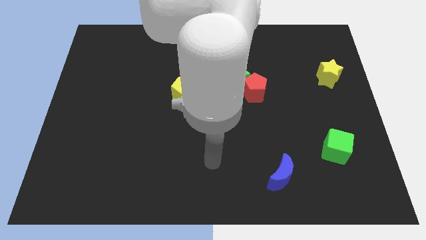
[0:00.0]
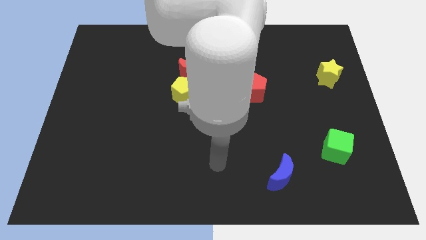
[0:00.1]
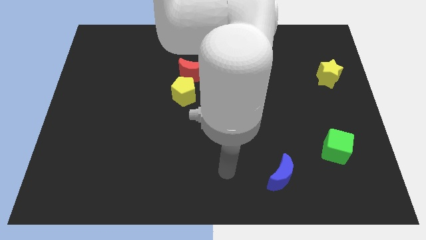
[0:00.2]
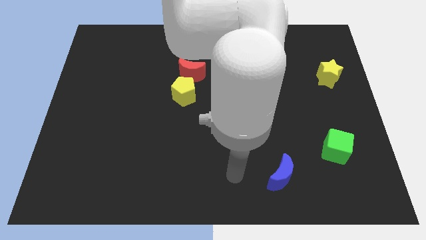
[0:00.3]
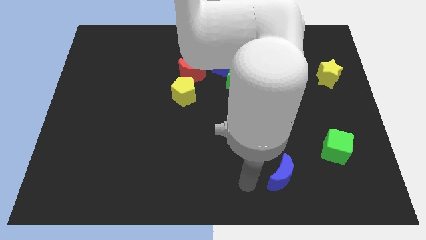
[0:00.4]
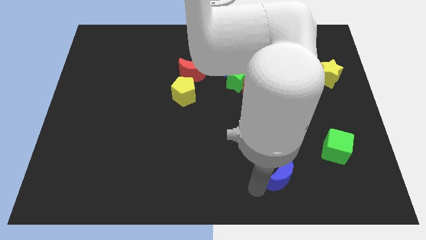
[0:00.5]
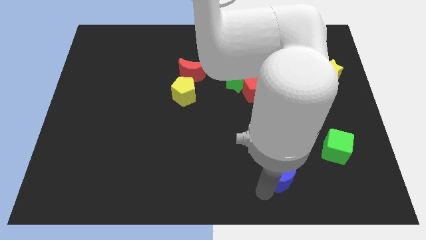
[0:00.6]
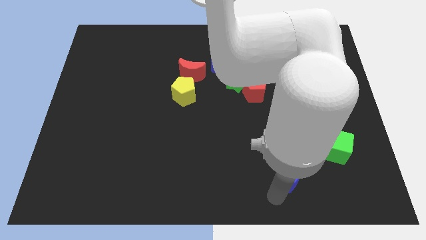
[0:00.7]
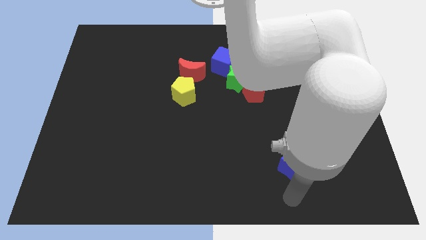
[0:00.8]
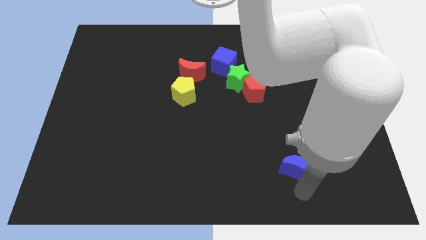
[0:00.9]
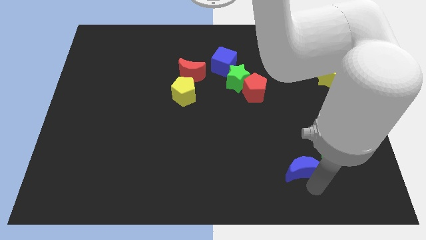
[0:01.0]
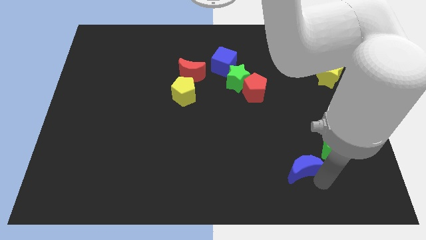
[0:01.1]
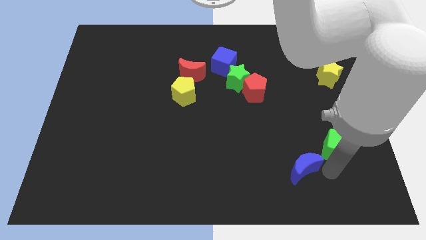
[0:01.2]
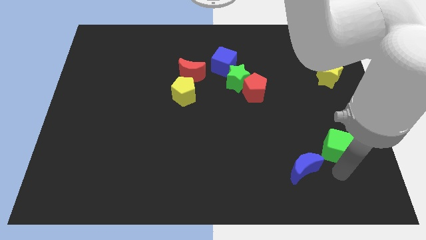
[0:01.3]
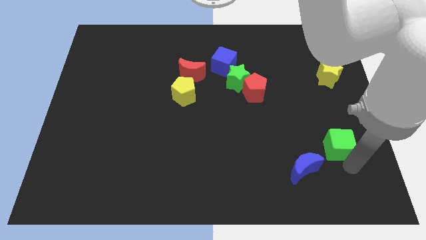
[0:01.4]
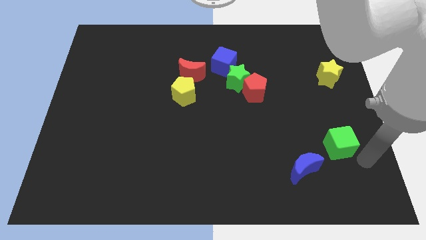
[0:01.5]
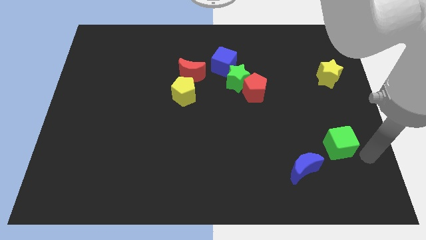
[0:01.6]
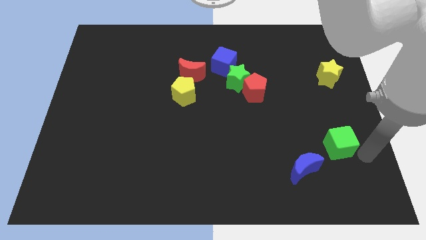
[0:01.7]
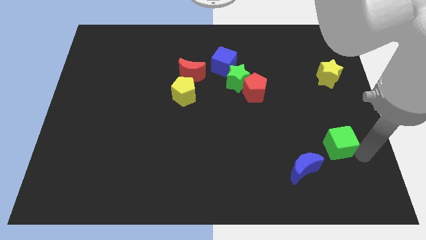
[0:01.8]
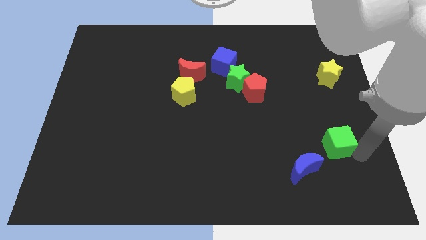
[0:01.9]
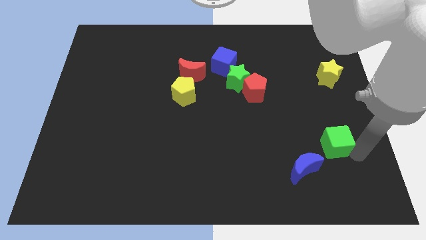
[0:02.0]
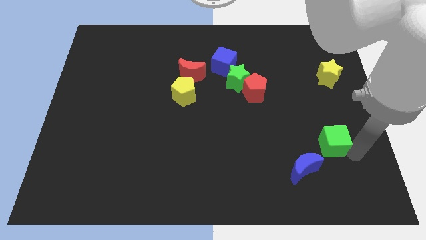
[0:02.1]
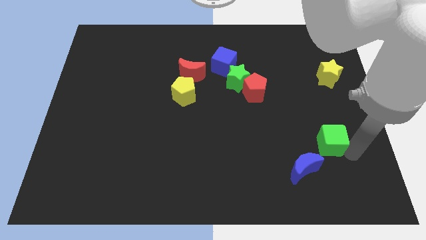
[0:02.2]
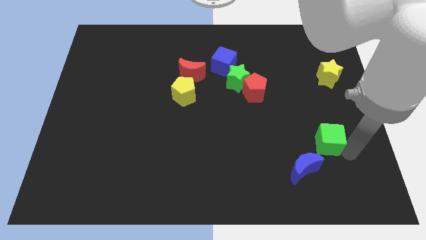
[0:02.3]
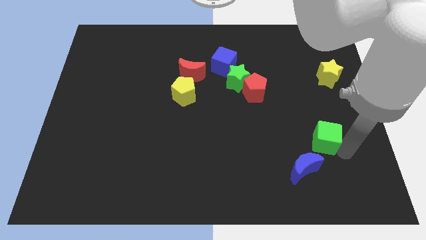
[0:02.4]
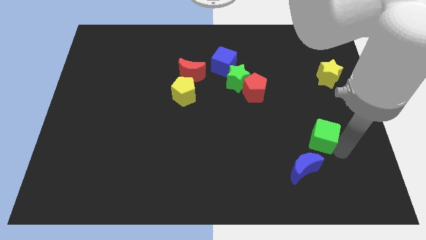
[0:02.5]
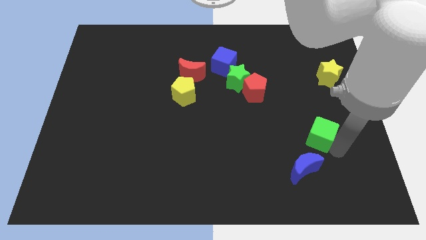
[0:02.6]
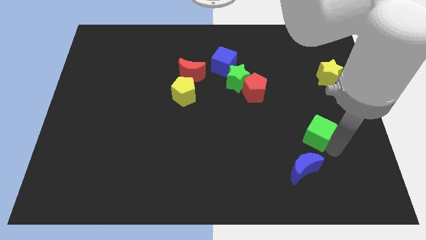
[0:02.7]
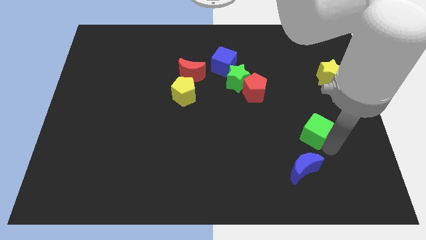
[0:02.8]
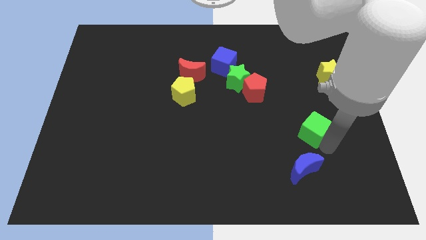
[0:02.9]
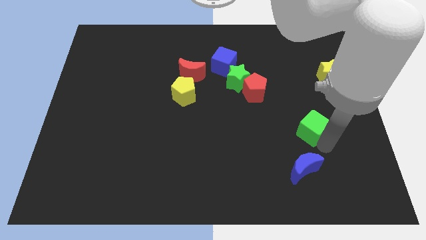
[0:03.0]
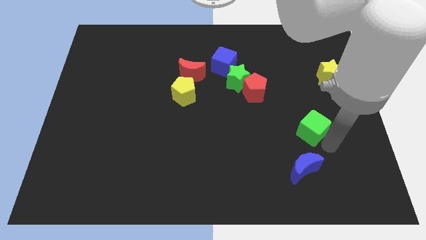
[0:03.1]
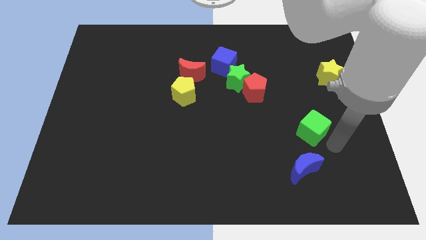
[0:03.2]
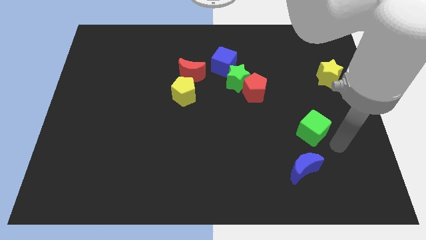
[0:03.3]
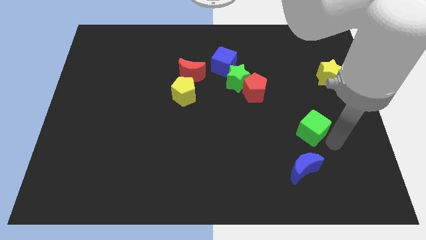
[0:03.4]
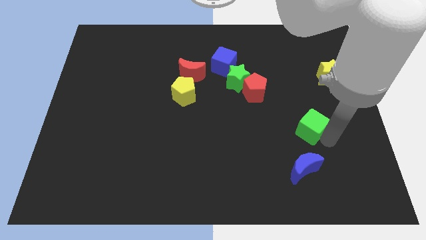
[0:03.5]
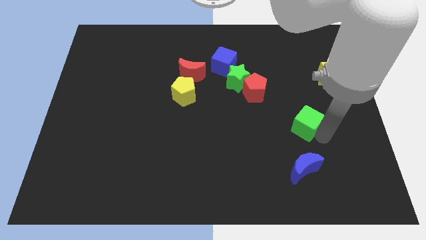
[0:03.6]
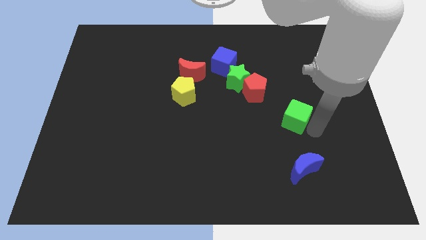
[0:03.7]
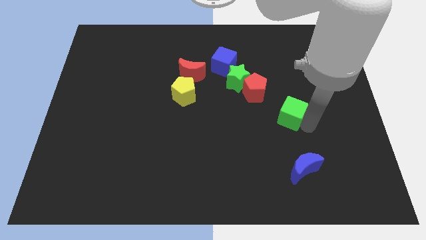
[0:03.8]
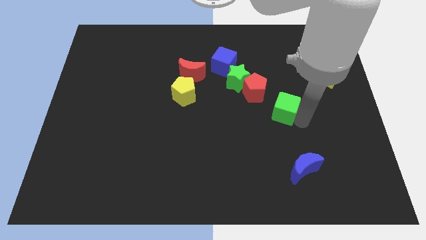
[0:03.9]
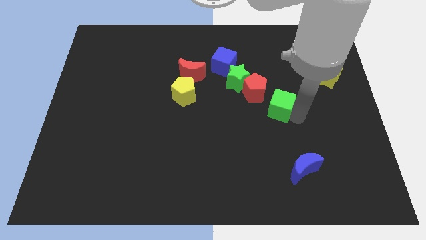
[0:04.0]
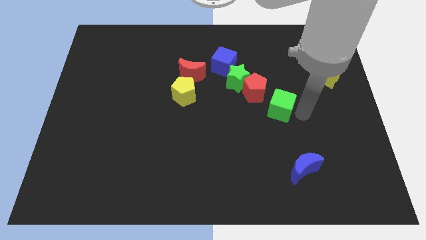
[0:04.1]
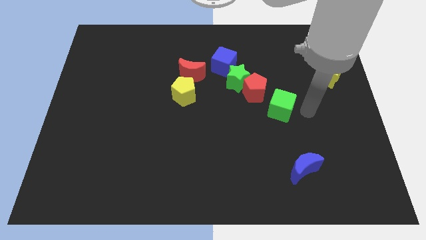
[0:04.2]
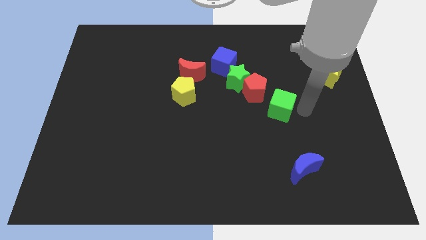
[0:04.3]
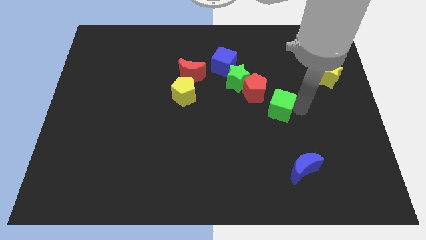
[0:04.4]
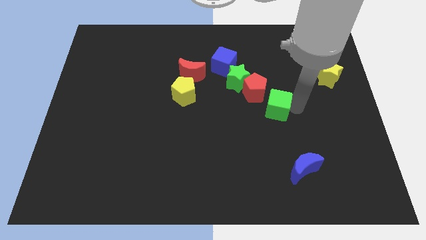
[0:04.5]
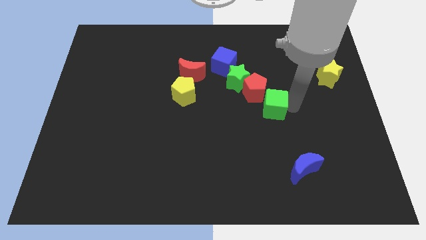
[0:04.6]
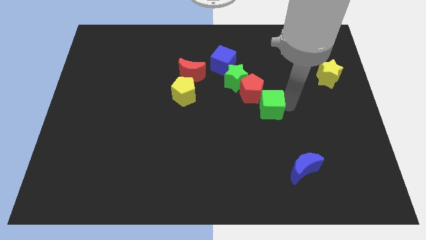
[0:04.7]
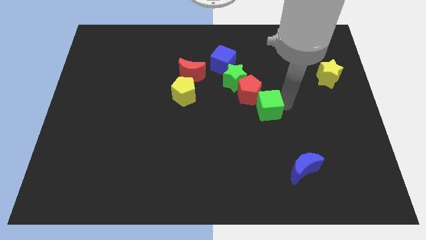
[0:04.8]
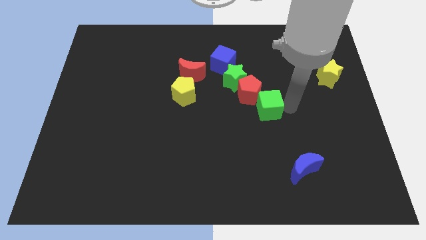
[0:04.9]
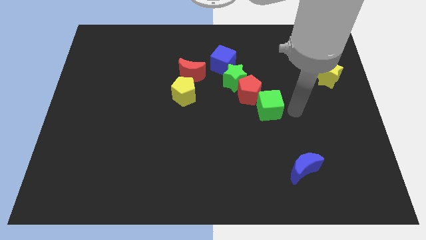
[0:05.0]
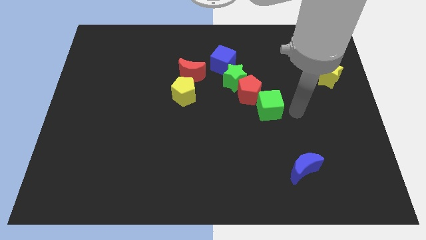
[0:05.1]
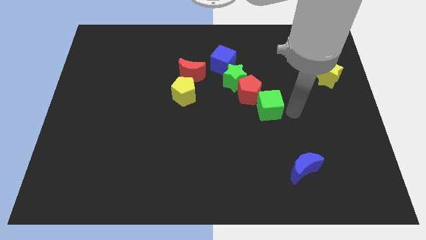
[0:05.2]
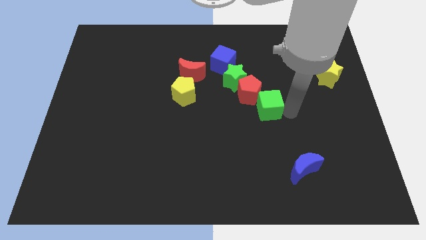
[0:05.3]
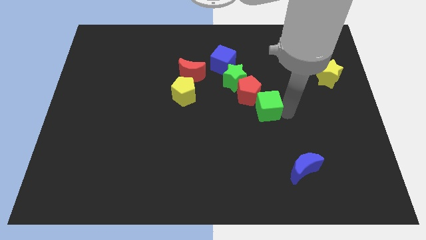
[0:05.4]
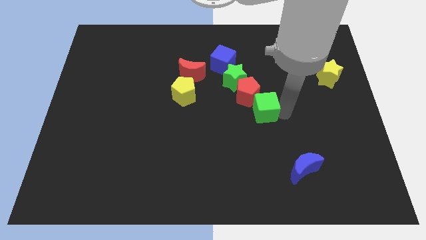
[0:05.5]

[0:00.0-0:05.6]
put the green cube to the middle of the board

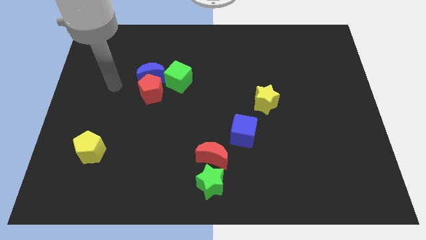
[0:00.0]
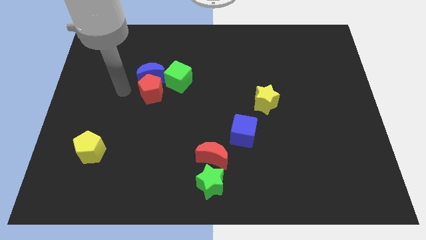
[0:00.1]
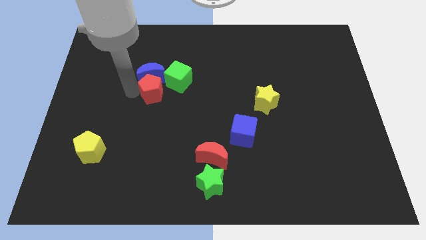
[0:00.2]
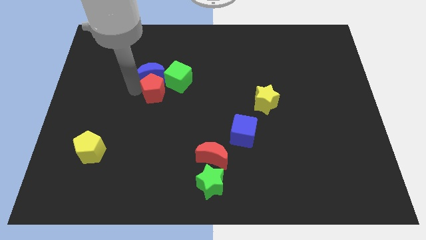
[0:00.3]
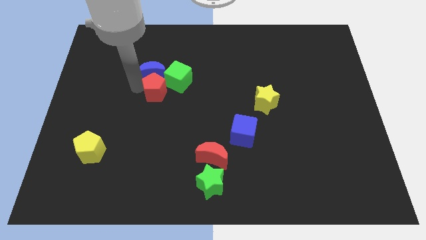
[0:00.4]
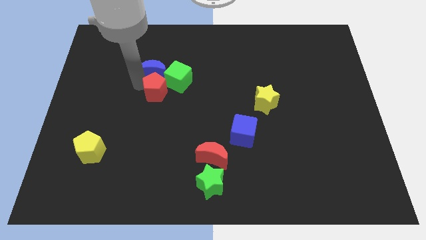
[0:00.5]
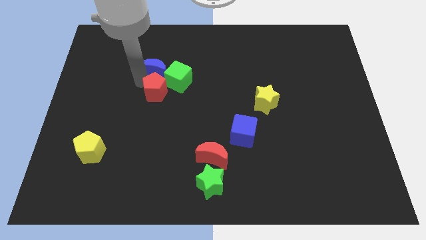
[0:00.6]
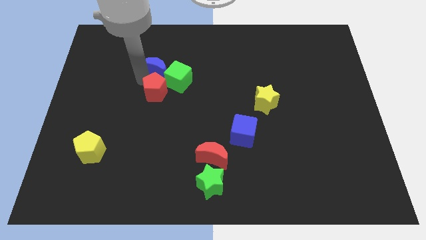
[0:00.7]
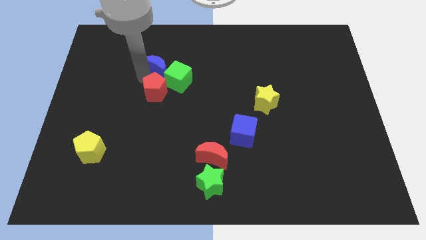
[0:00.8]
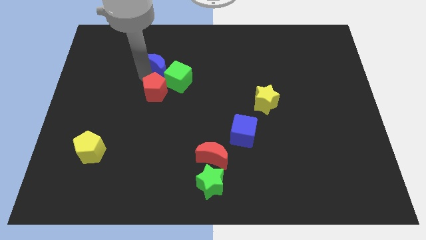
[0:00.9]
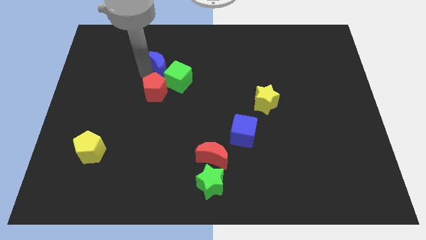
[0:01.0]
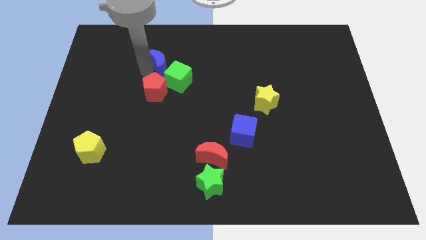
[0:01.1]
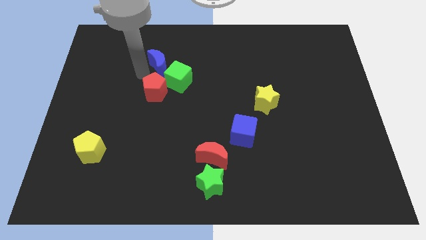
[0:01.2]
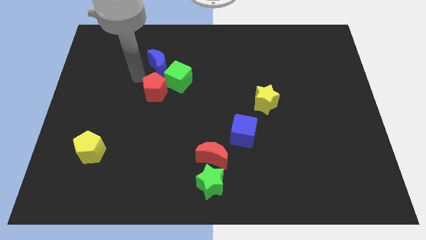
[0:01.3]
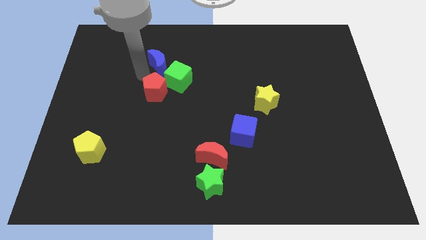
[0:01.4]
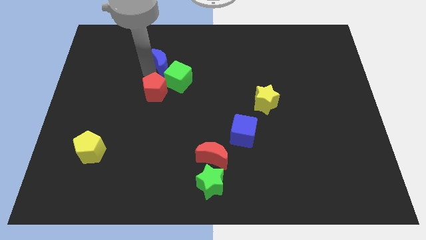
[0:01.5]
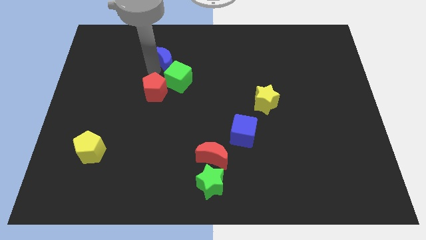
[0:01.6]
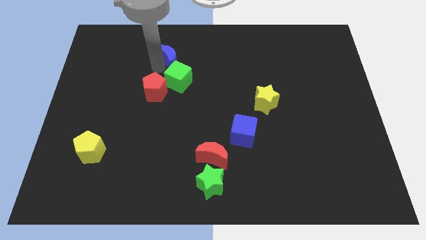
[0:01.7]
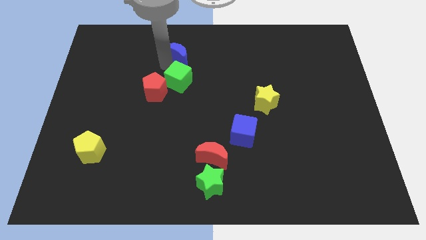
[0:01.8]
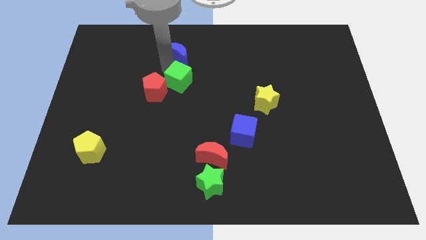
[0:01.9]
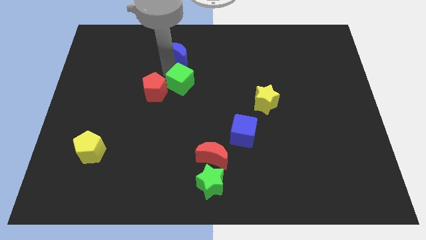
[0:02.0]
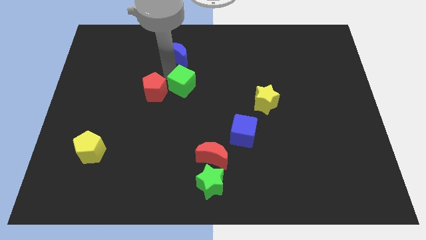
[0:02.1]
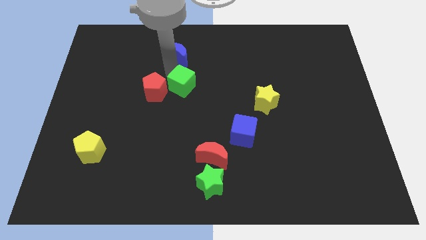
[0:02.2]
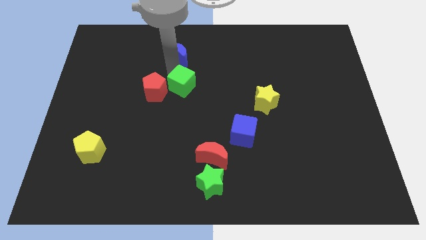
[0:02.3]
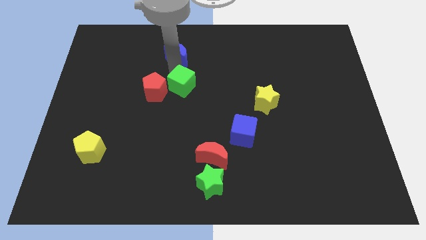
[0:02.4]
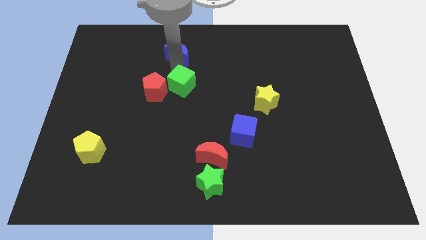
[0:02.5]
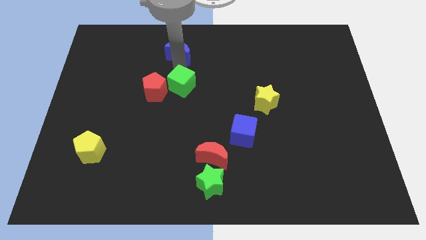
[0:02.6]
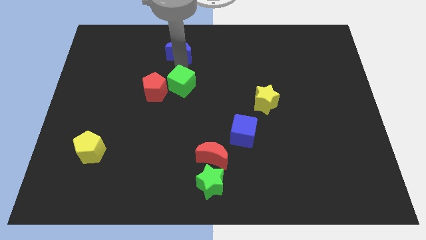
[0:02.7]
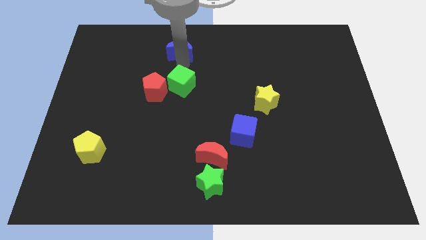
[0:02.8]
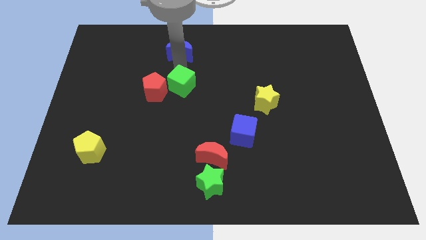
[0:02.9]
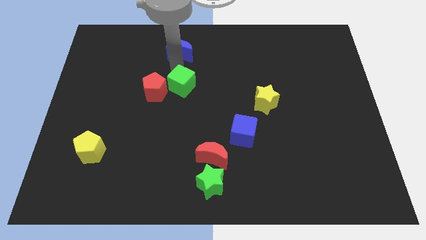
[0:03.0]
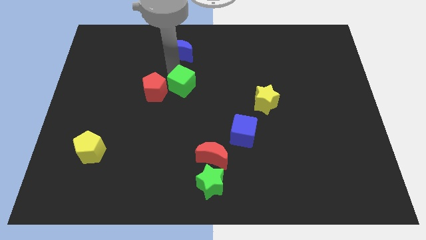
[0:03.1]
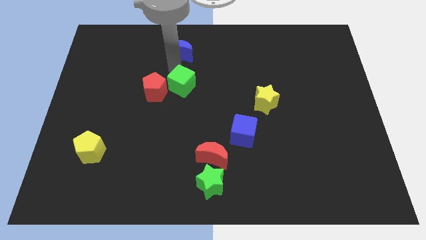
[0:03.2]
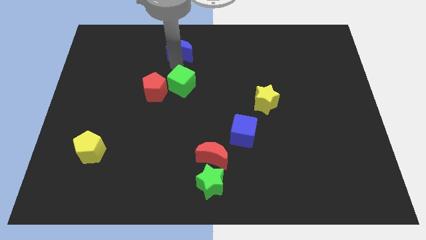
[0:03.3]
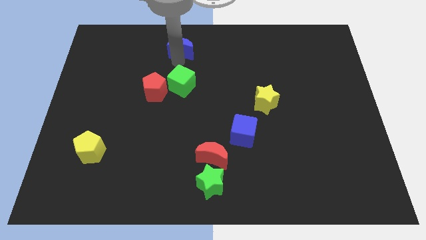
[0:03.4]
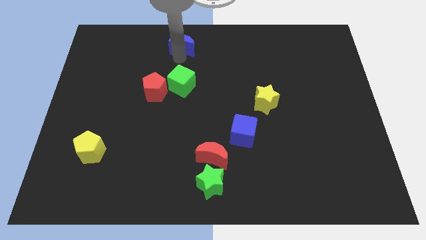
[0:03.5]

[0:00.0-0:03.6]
push the blue moon to the towards your base
